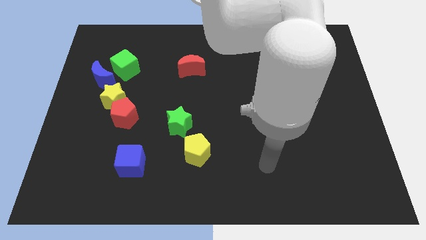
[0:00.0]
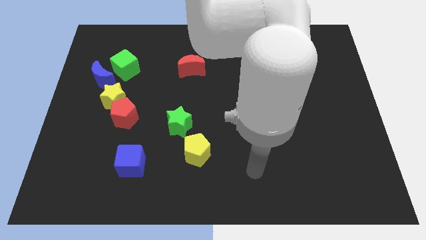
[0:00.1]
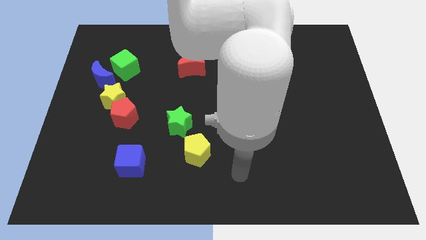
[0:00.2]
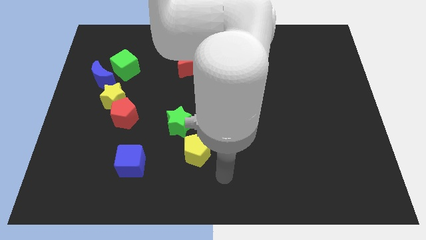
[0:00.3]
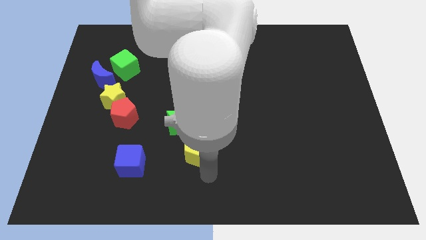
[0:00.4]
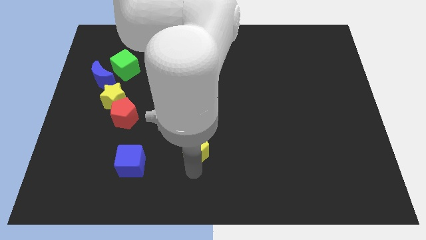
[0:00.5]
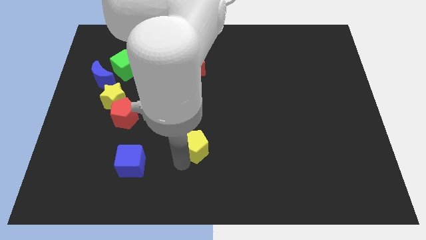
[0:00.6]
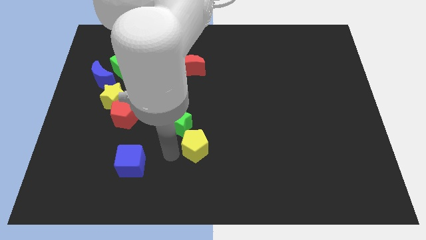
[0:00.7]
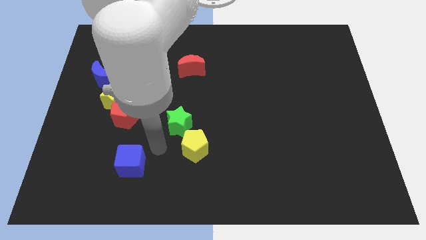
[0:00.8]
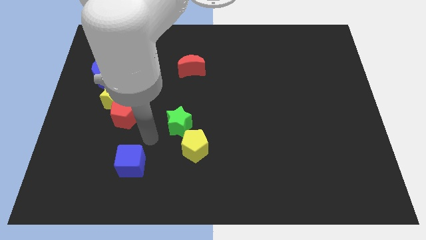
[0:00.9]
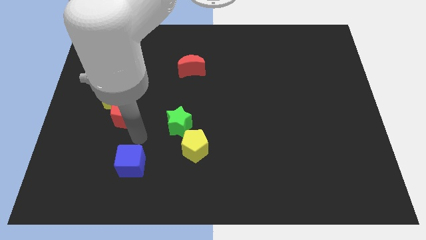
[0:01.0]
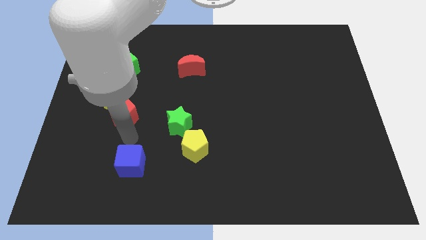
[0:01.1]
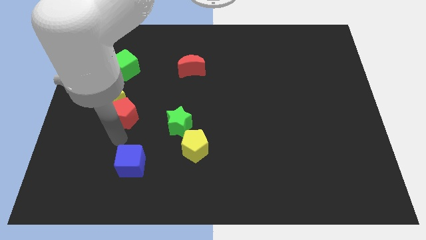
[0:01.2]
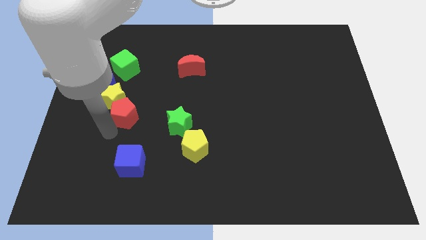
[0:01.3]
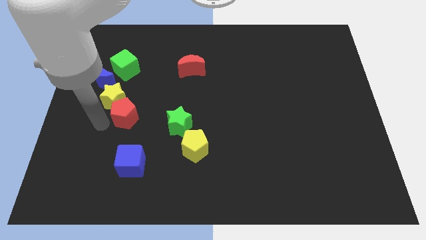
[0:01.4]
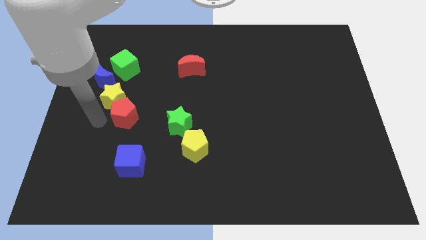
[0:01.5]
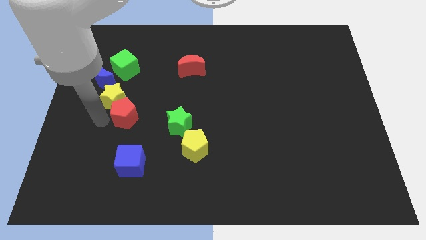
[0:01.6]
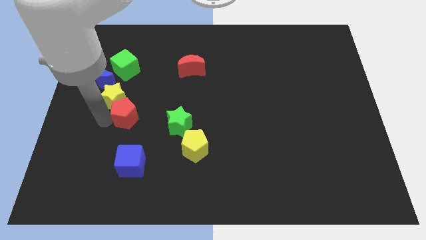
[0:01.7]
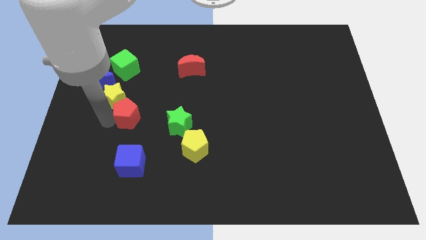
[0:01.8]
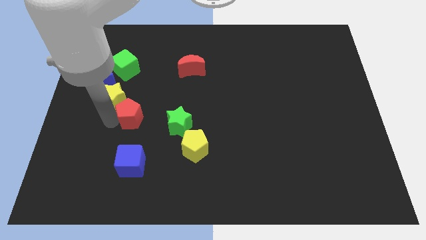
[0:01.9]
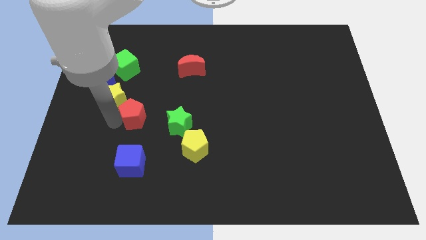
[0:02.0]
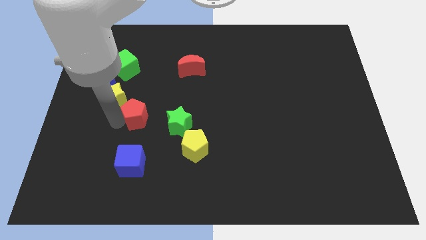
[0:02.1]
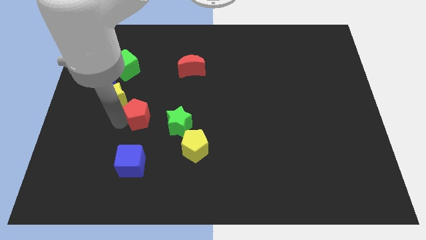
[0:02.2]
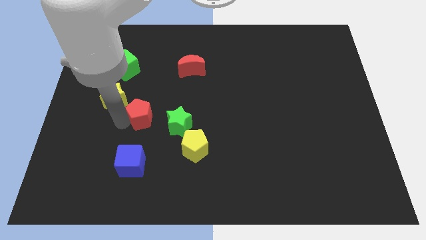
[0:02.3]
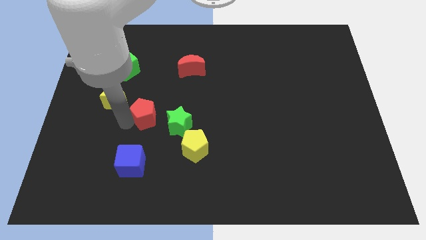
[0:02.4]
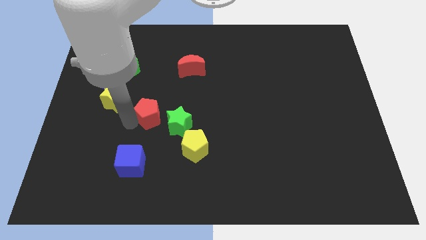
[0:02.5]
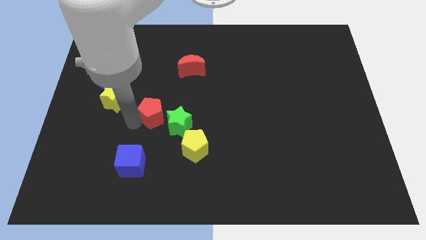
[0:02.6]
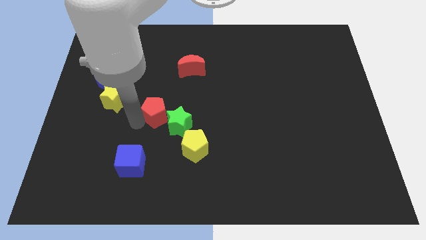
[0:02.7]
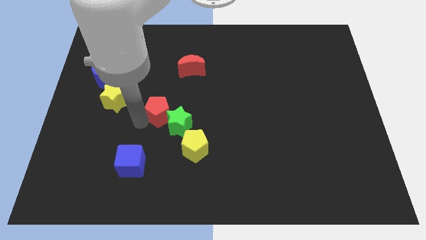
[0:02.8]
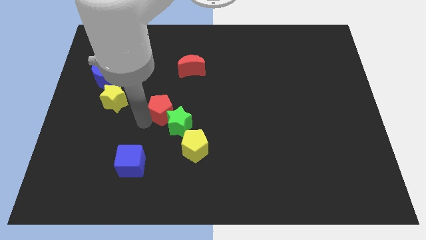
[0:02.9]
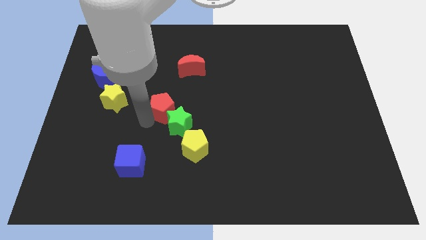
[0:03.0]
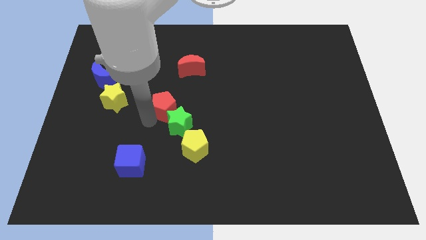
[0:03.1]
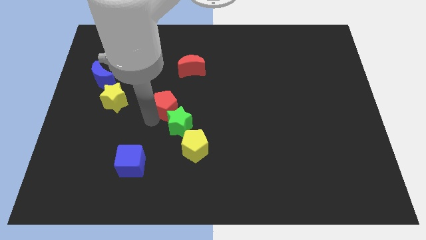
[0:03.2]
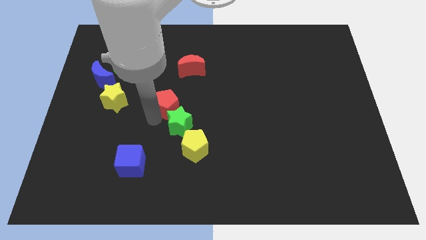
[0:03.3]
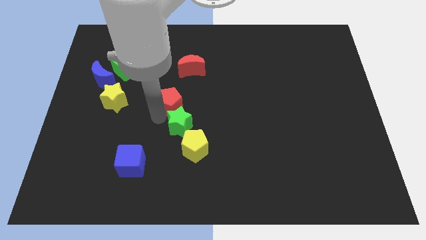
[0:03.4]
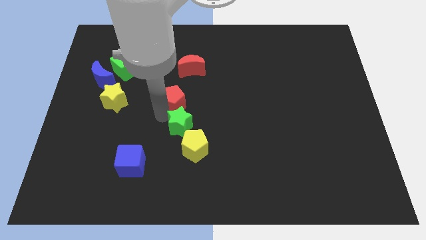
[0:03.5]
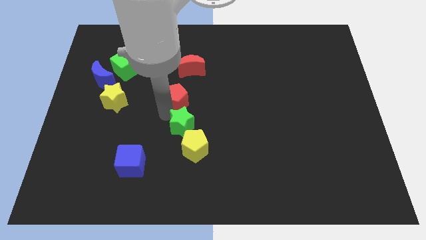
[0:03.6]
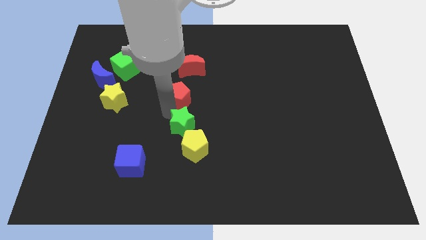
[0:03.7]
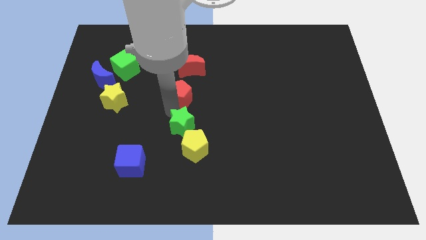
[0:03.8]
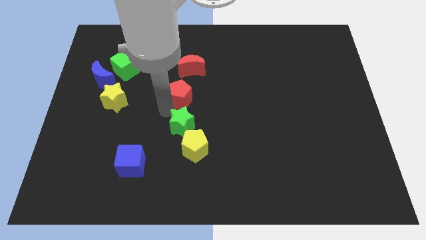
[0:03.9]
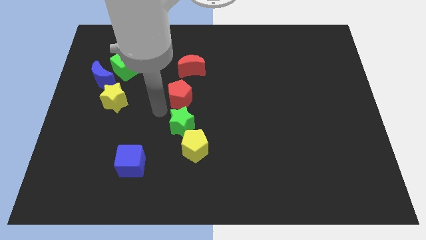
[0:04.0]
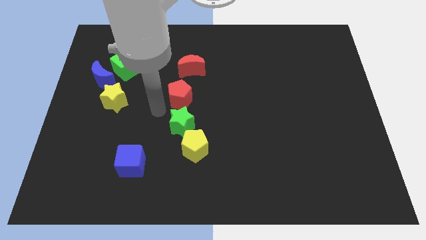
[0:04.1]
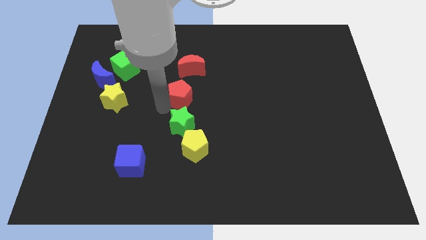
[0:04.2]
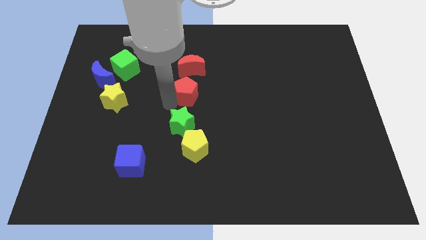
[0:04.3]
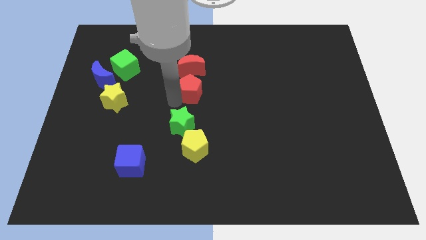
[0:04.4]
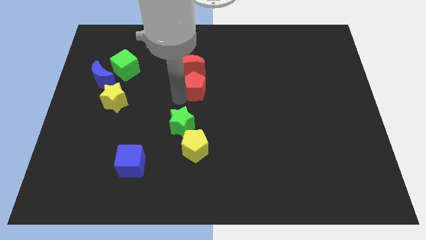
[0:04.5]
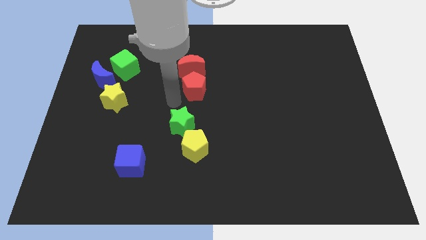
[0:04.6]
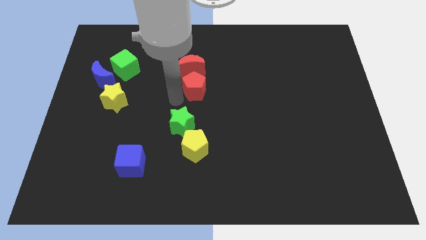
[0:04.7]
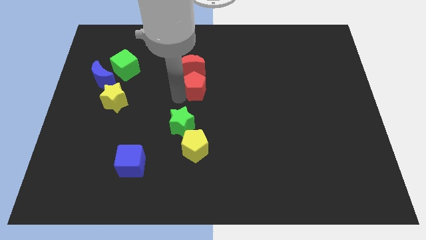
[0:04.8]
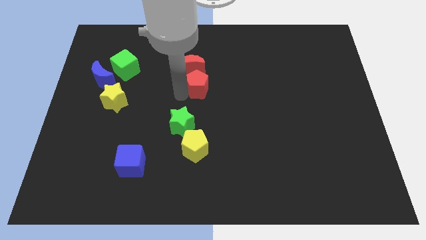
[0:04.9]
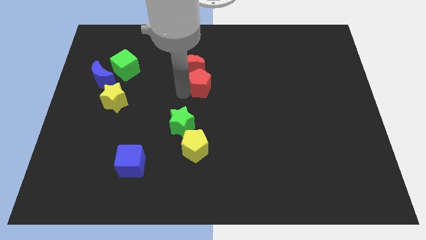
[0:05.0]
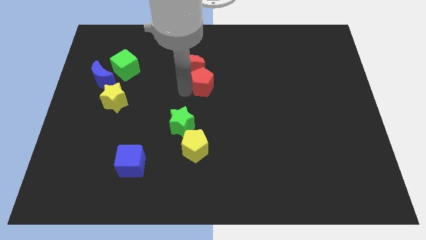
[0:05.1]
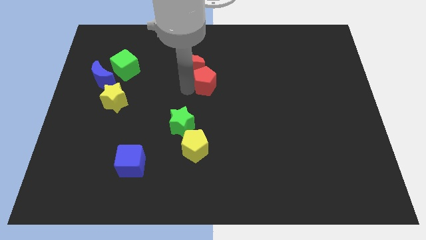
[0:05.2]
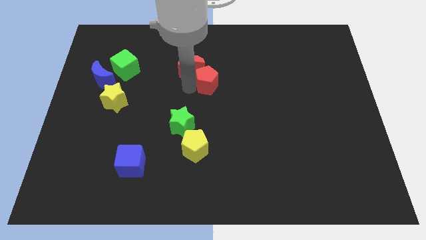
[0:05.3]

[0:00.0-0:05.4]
move the red pentagon to the right of the red moon

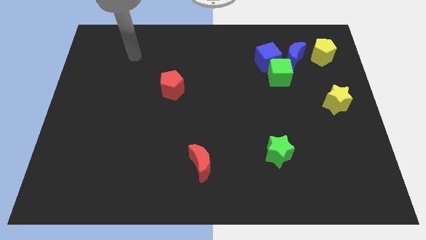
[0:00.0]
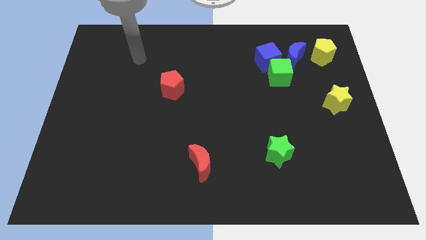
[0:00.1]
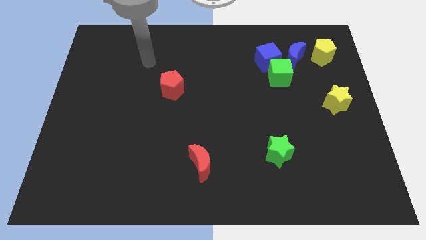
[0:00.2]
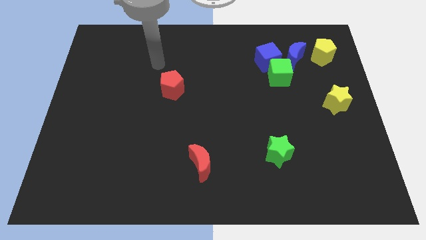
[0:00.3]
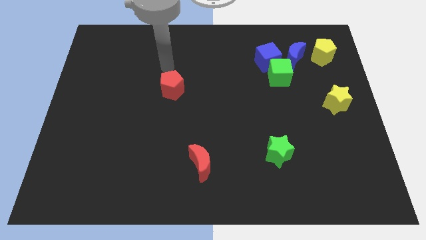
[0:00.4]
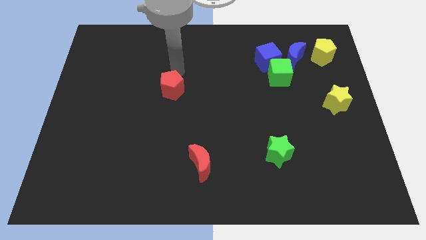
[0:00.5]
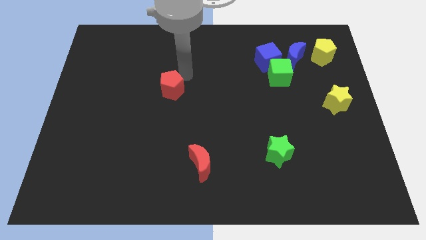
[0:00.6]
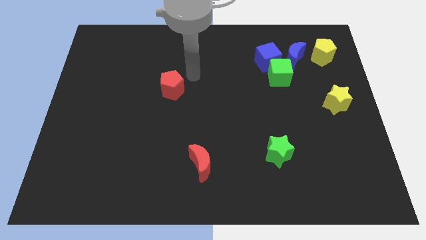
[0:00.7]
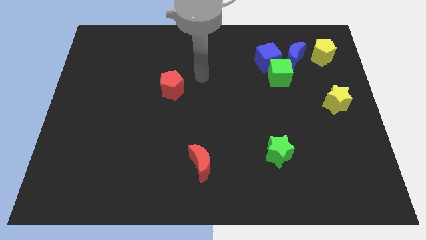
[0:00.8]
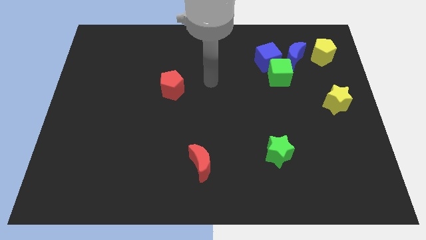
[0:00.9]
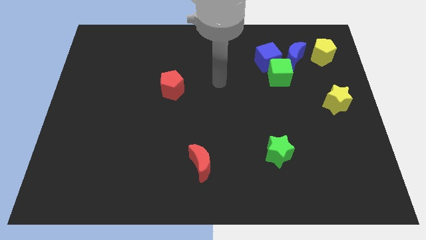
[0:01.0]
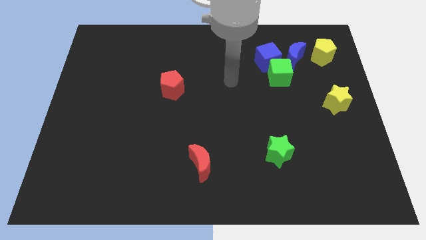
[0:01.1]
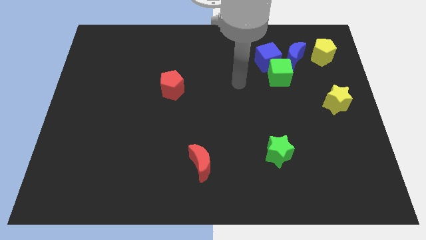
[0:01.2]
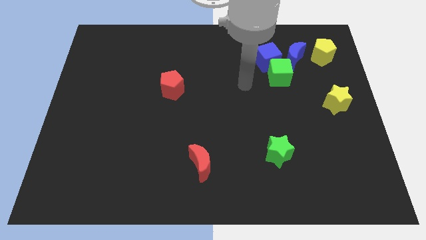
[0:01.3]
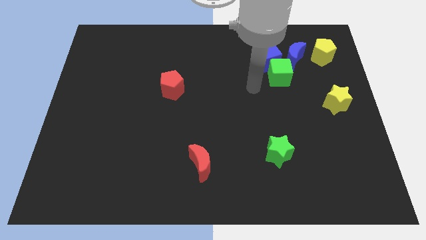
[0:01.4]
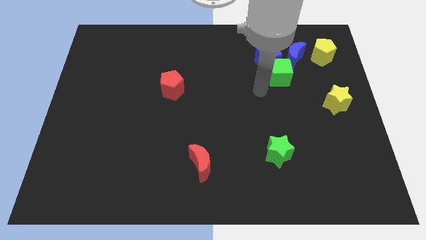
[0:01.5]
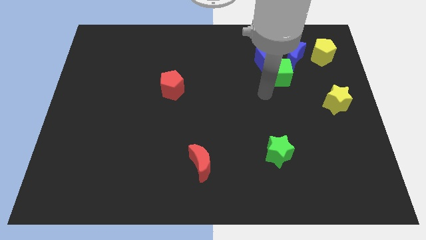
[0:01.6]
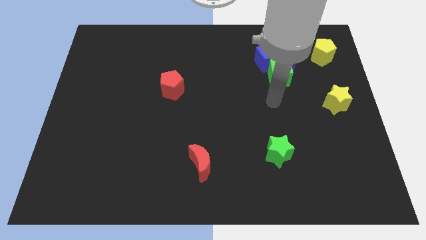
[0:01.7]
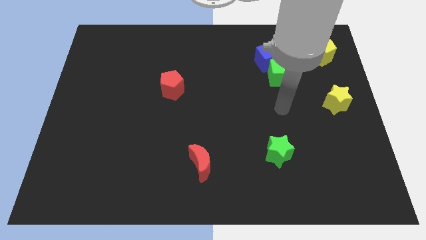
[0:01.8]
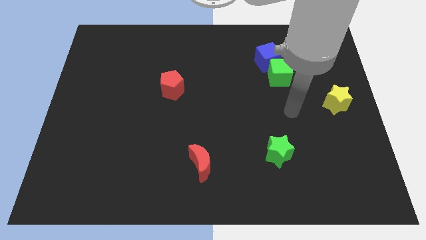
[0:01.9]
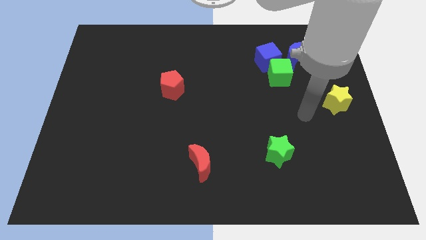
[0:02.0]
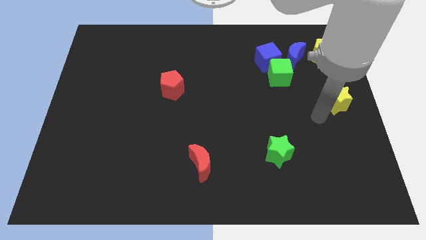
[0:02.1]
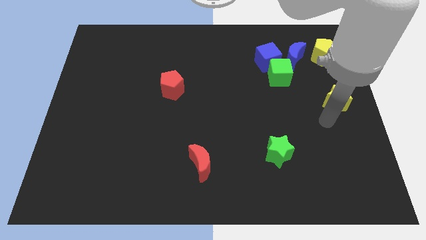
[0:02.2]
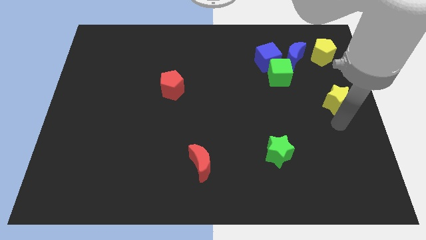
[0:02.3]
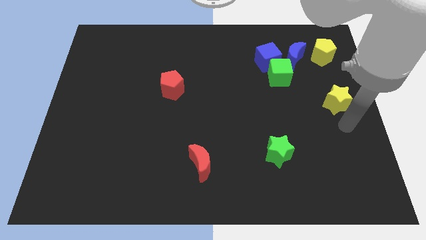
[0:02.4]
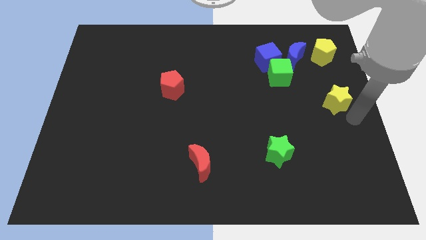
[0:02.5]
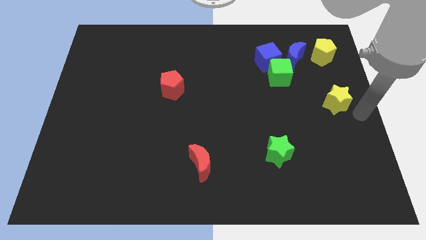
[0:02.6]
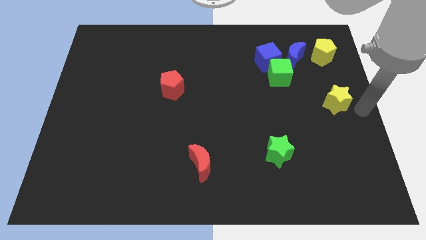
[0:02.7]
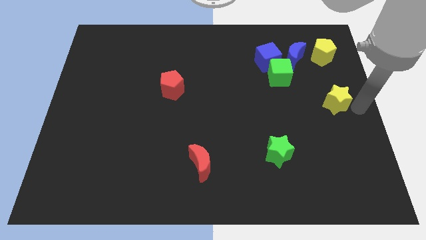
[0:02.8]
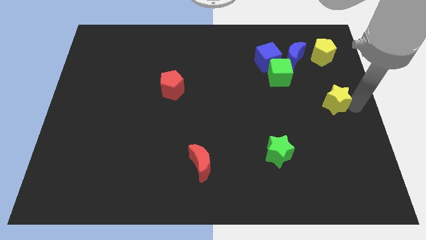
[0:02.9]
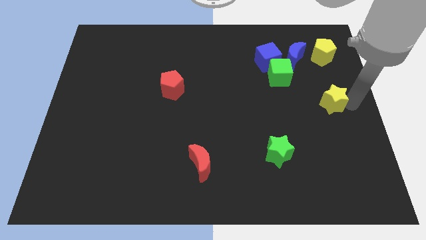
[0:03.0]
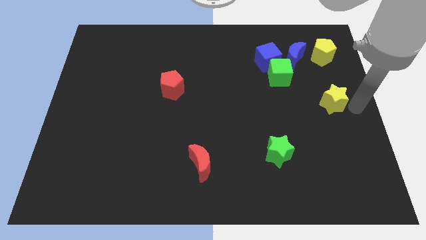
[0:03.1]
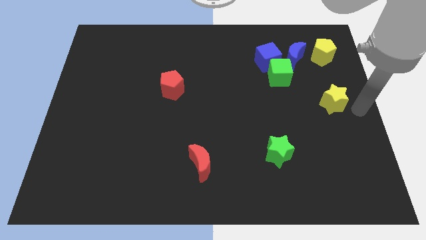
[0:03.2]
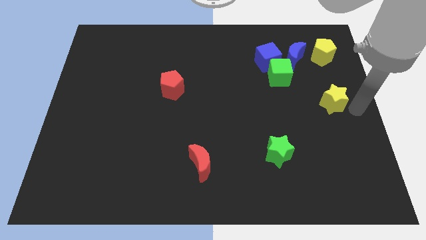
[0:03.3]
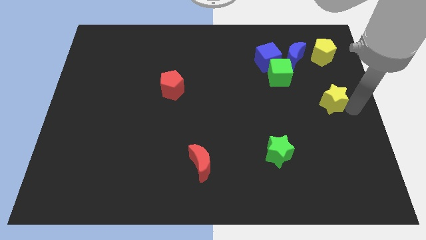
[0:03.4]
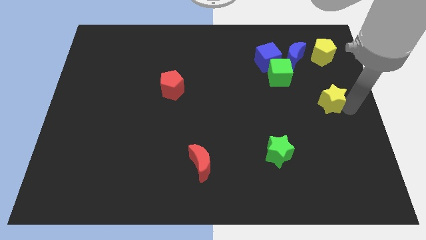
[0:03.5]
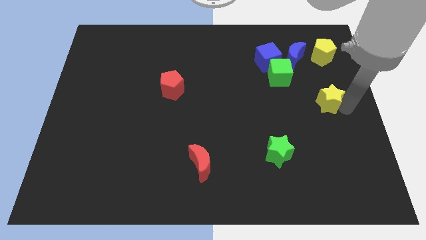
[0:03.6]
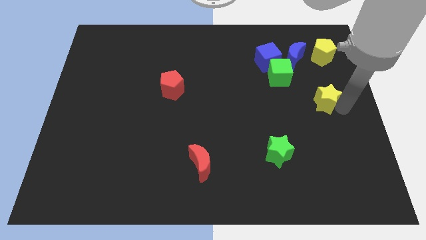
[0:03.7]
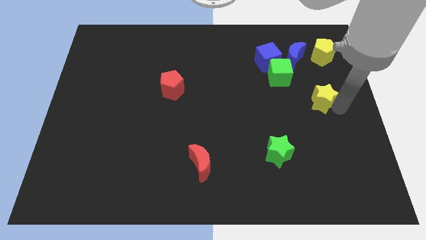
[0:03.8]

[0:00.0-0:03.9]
push the yellow star to the bottom right side of the green cube
